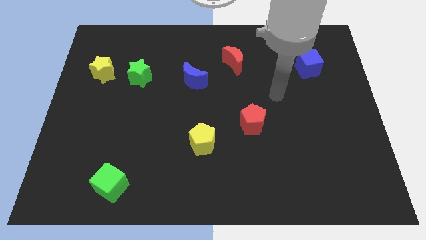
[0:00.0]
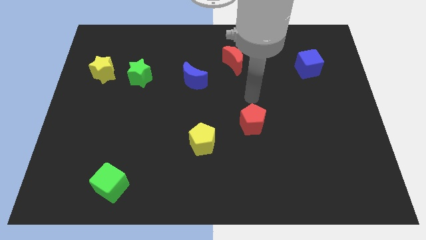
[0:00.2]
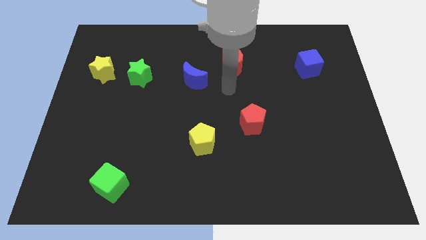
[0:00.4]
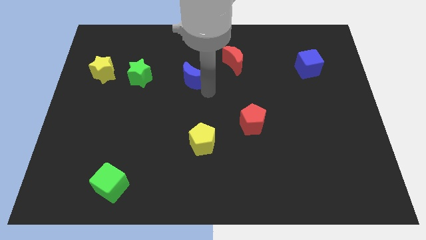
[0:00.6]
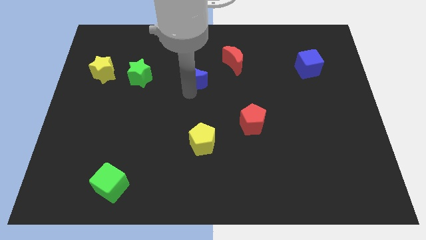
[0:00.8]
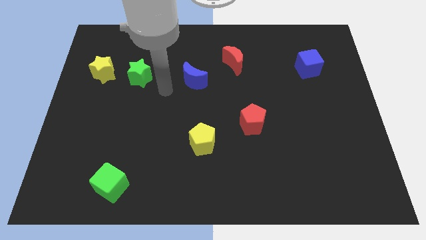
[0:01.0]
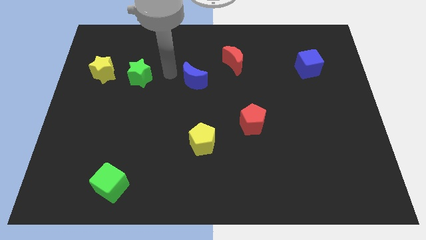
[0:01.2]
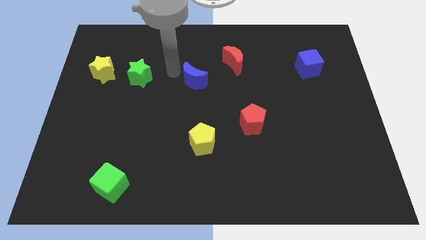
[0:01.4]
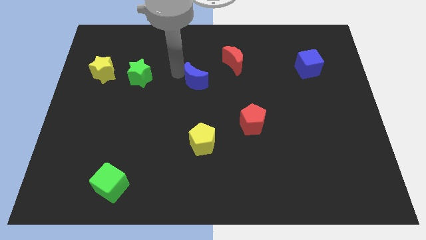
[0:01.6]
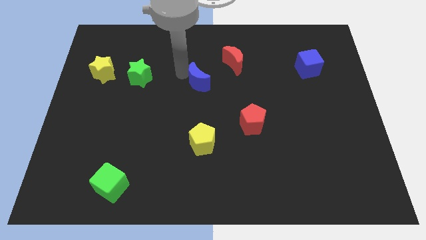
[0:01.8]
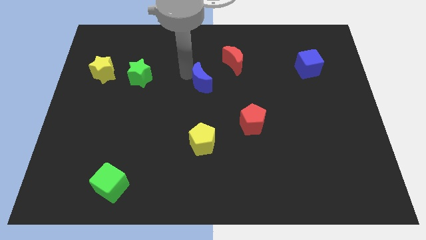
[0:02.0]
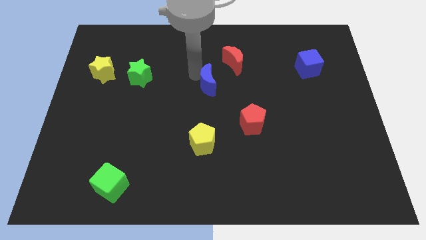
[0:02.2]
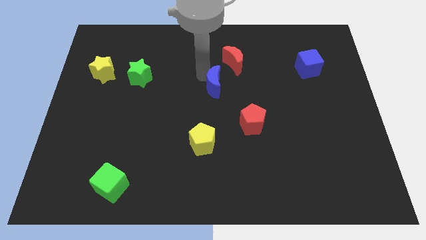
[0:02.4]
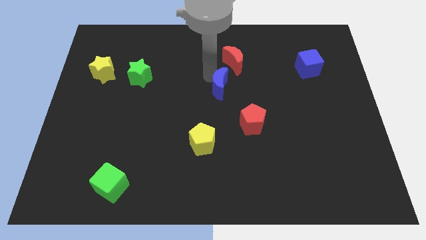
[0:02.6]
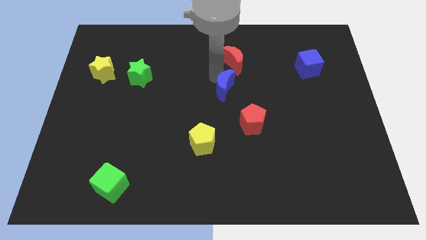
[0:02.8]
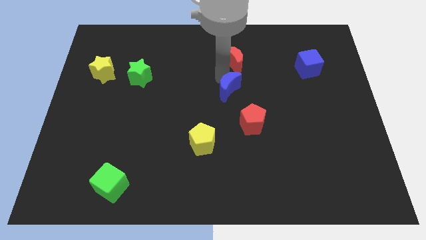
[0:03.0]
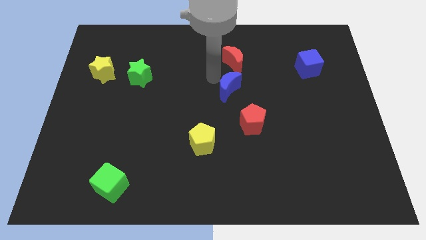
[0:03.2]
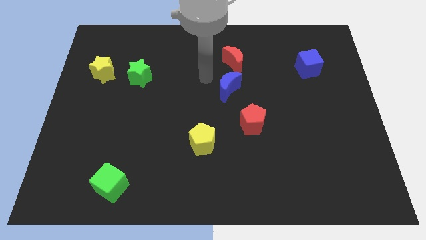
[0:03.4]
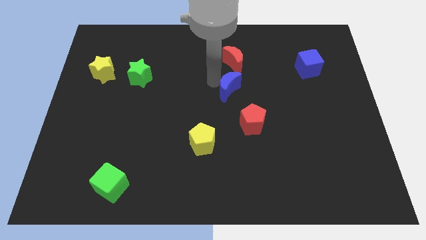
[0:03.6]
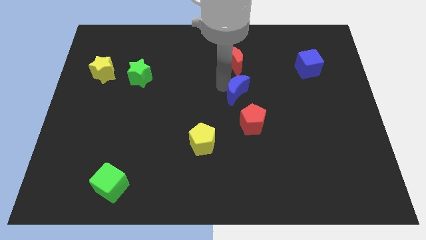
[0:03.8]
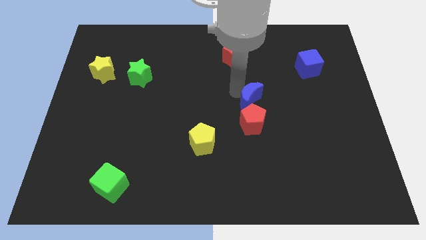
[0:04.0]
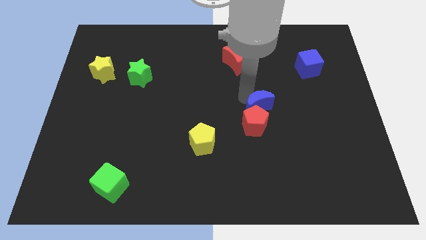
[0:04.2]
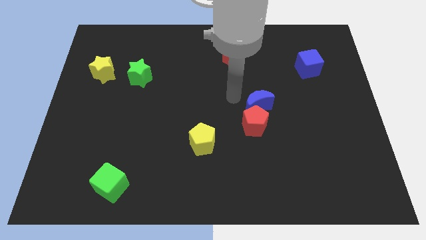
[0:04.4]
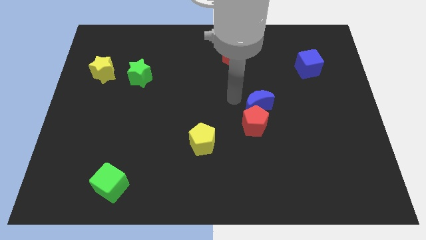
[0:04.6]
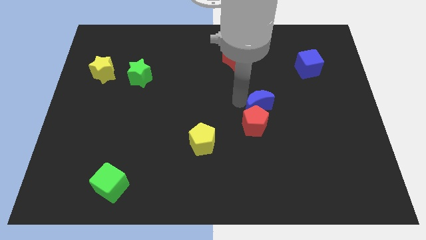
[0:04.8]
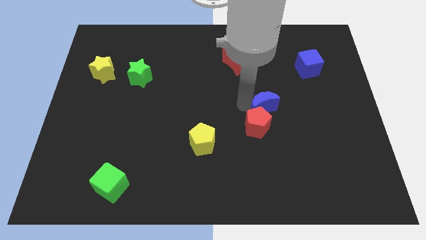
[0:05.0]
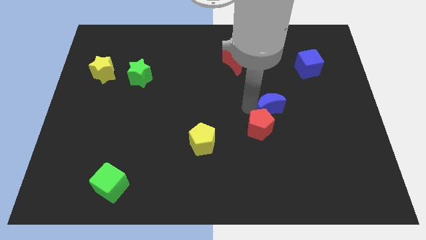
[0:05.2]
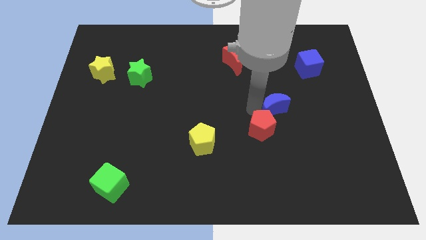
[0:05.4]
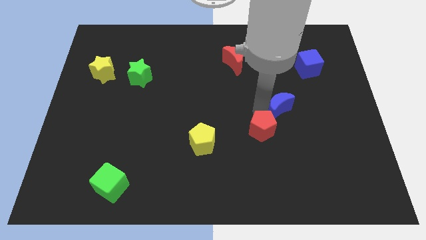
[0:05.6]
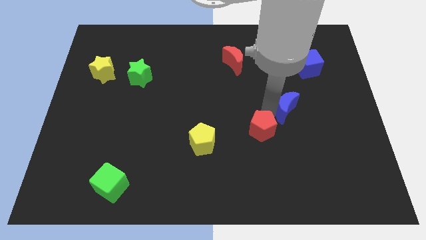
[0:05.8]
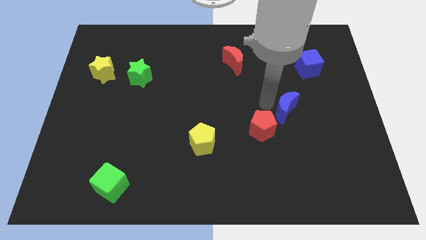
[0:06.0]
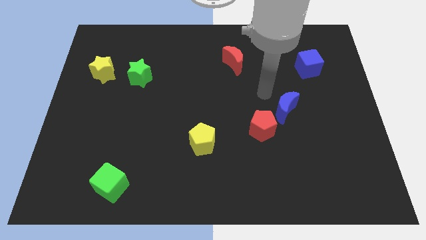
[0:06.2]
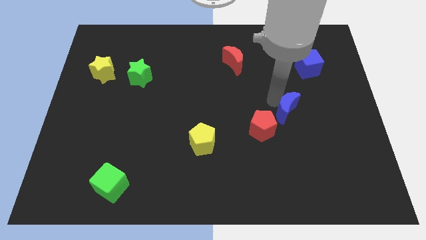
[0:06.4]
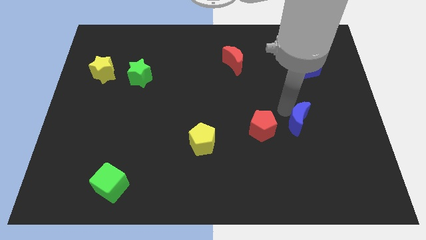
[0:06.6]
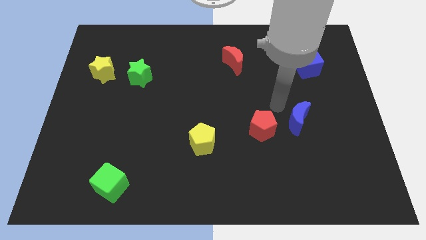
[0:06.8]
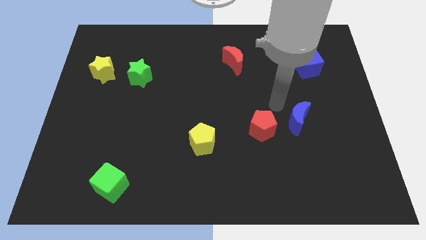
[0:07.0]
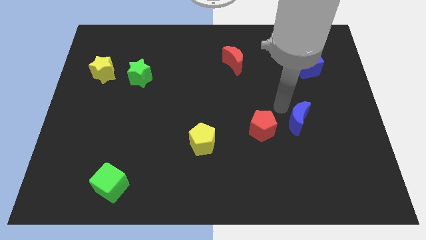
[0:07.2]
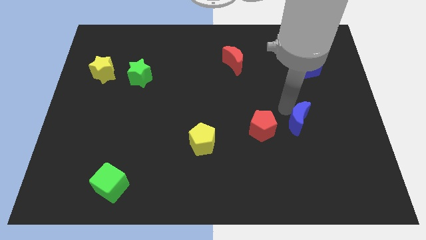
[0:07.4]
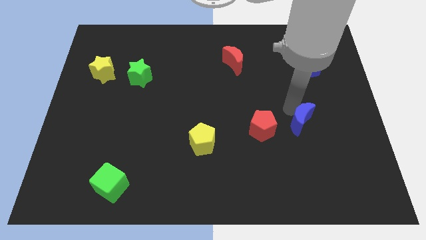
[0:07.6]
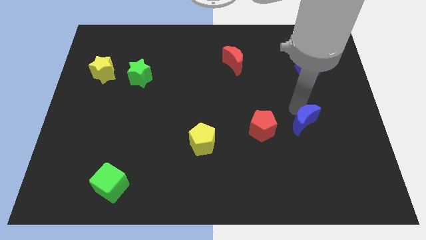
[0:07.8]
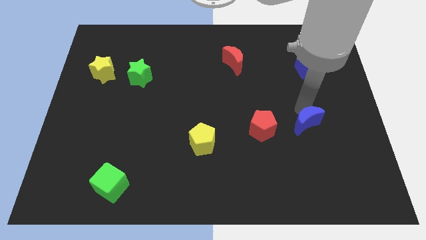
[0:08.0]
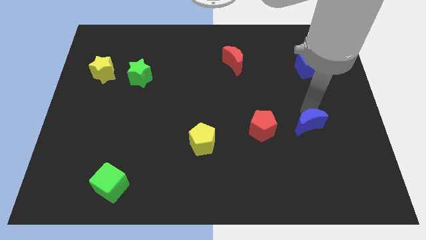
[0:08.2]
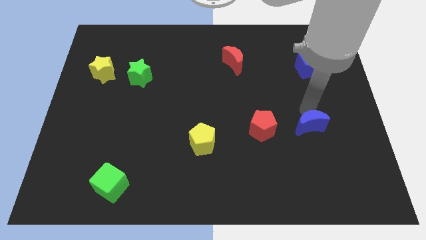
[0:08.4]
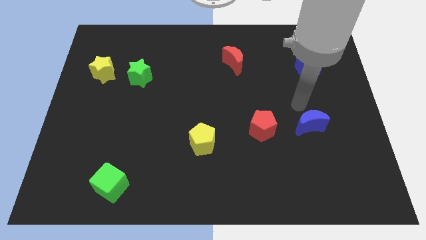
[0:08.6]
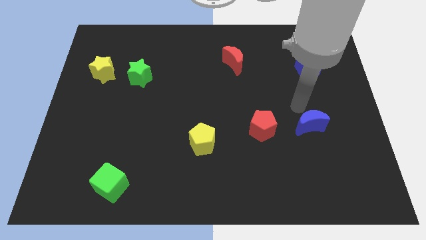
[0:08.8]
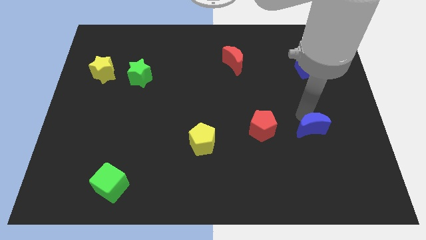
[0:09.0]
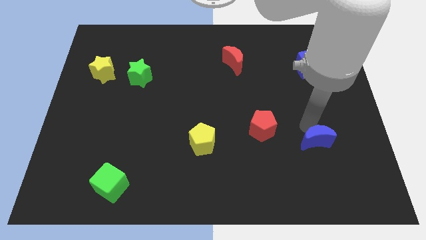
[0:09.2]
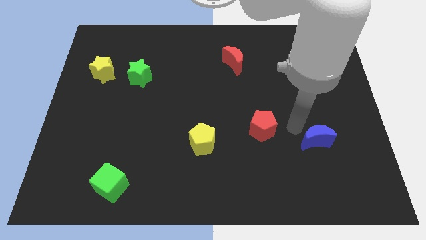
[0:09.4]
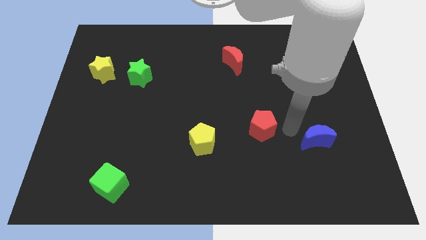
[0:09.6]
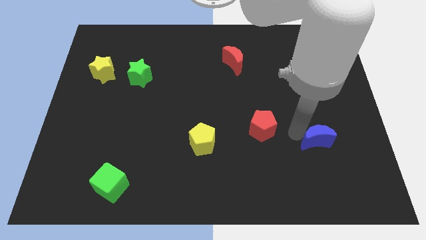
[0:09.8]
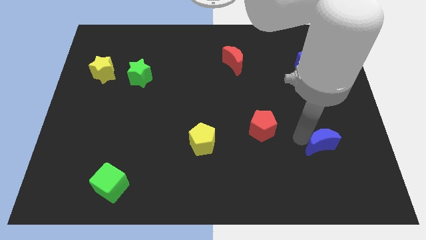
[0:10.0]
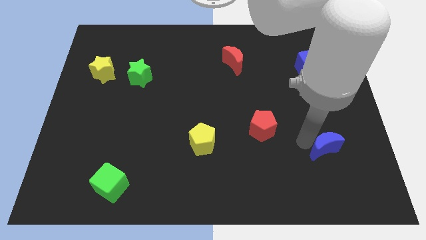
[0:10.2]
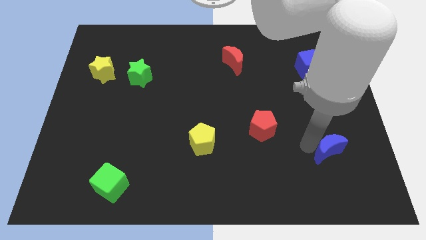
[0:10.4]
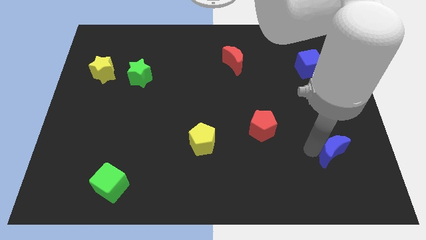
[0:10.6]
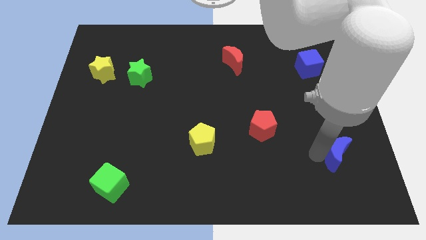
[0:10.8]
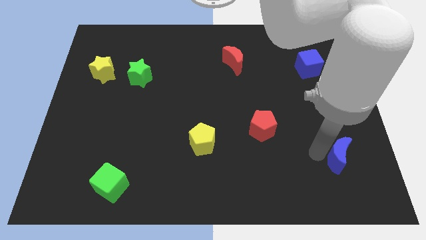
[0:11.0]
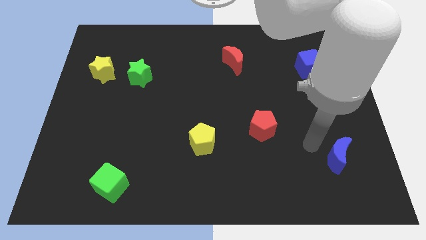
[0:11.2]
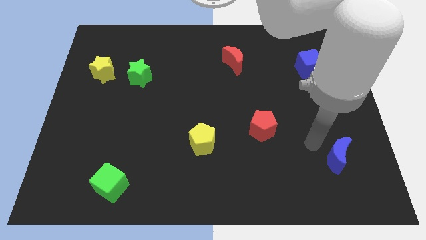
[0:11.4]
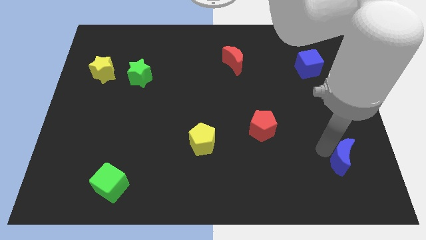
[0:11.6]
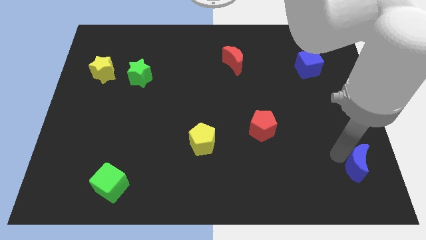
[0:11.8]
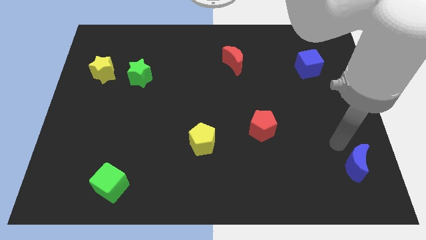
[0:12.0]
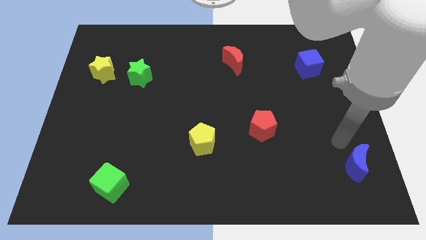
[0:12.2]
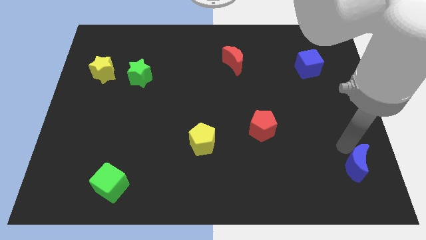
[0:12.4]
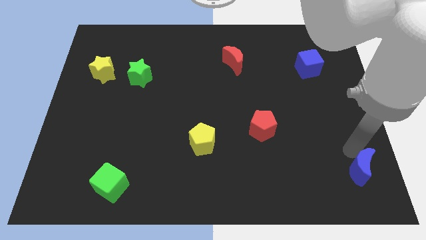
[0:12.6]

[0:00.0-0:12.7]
put the blue moon to the lower right corner

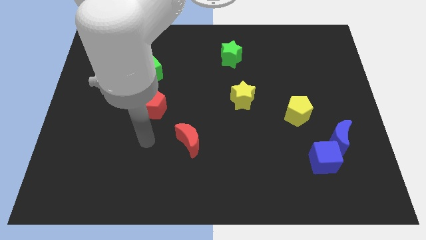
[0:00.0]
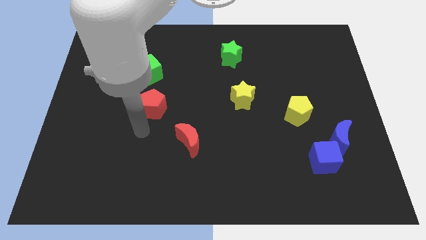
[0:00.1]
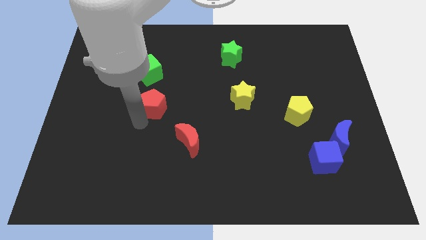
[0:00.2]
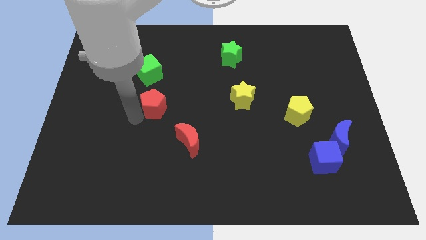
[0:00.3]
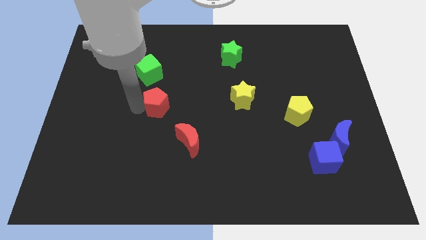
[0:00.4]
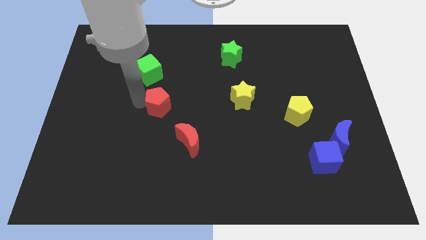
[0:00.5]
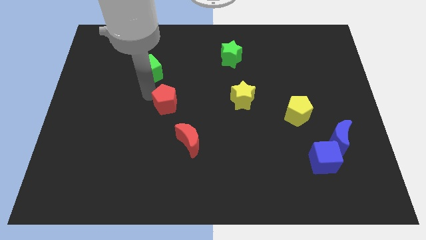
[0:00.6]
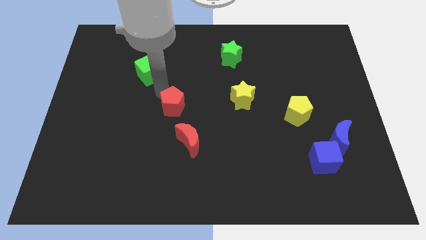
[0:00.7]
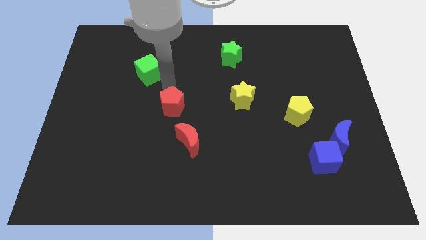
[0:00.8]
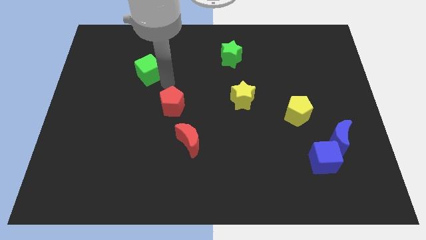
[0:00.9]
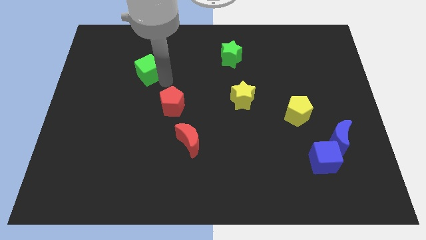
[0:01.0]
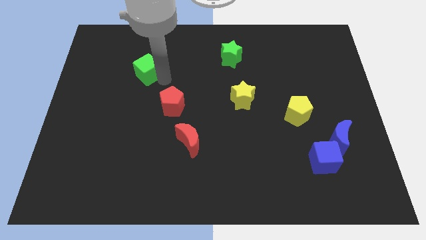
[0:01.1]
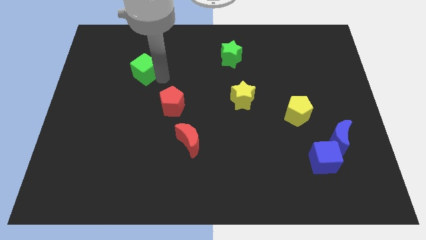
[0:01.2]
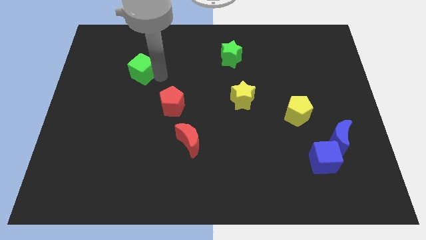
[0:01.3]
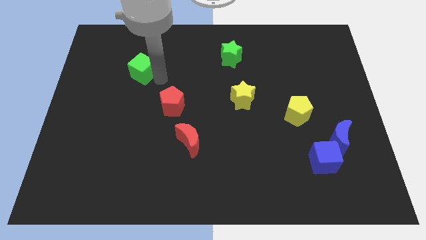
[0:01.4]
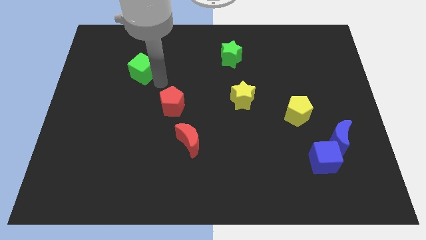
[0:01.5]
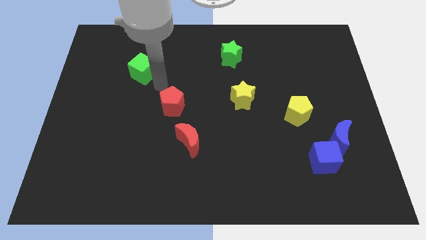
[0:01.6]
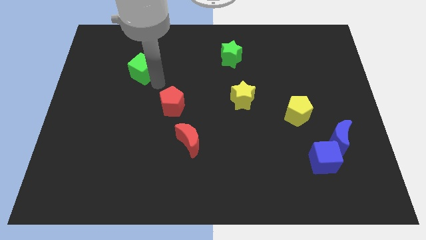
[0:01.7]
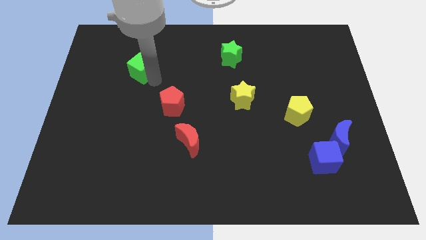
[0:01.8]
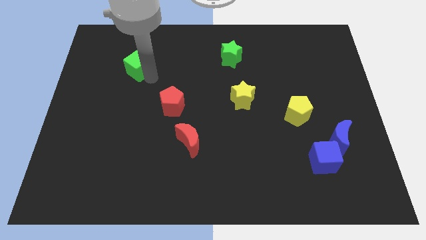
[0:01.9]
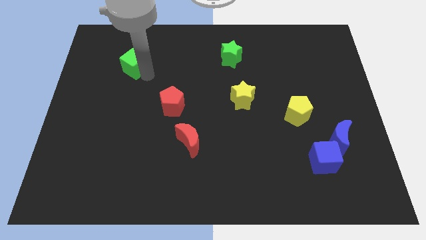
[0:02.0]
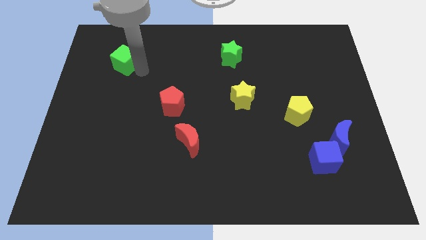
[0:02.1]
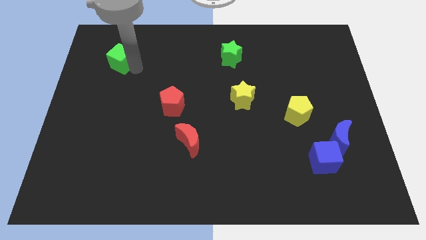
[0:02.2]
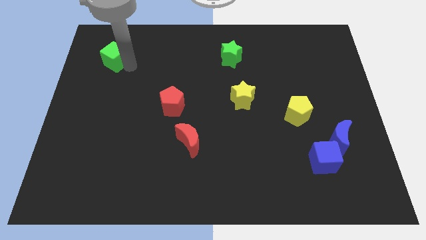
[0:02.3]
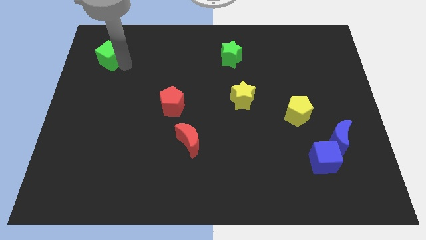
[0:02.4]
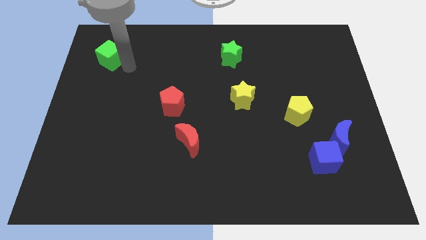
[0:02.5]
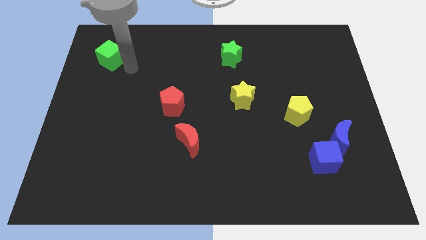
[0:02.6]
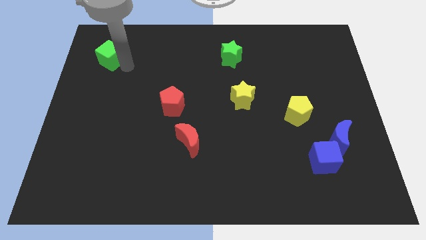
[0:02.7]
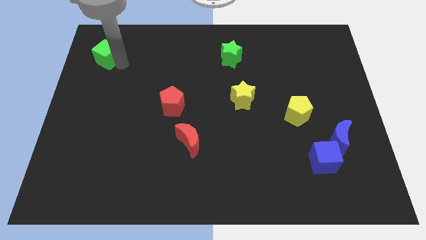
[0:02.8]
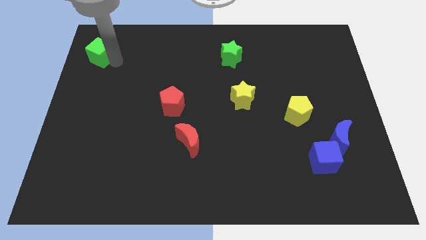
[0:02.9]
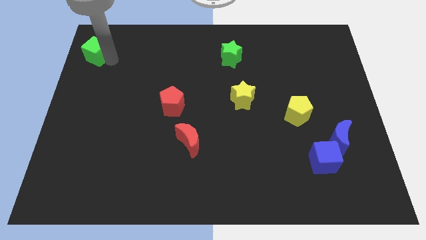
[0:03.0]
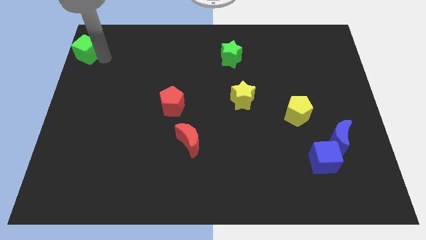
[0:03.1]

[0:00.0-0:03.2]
move the green cube to the top left corner
